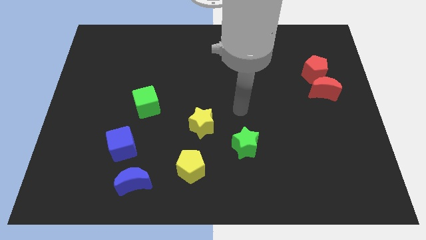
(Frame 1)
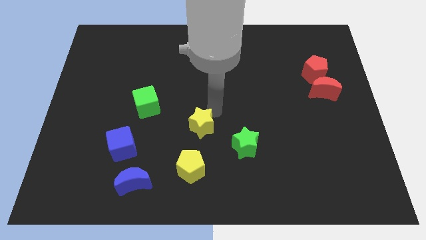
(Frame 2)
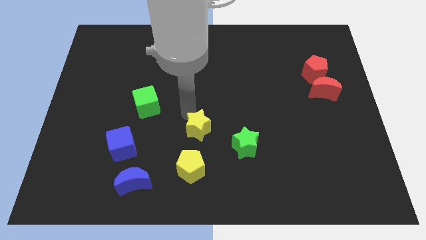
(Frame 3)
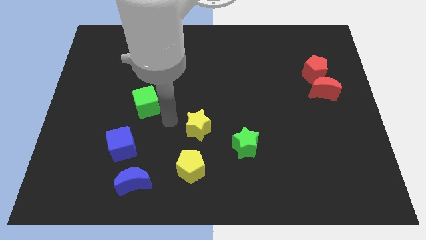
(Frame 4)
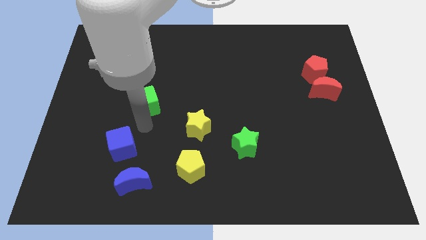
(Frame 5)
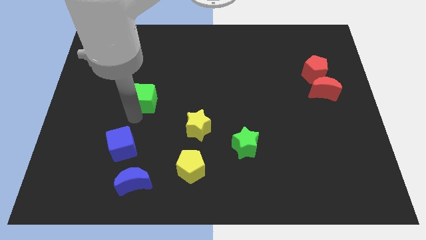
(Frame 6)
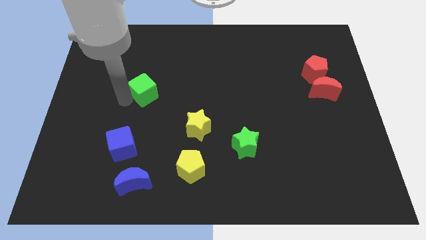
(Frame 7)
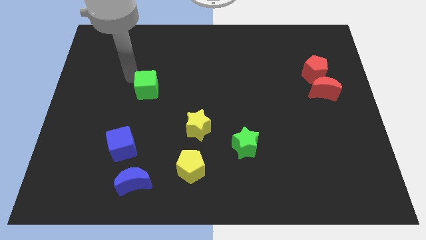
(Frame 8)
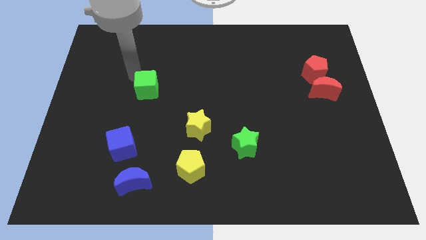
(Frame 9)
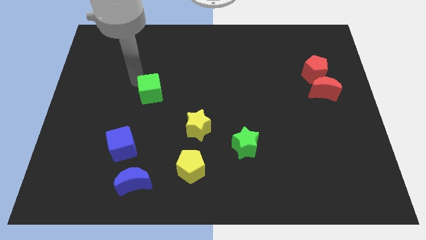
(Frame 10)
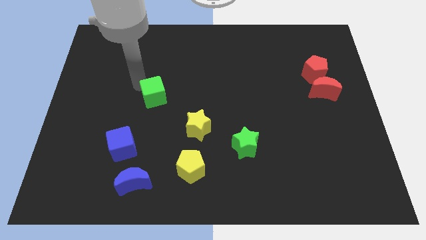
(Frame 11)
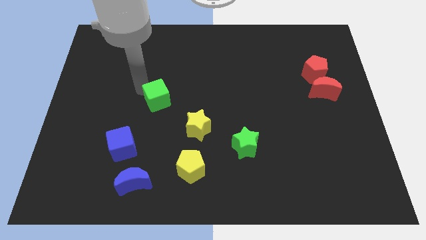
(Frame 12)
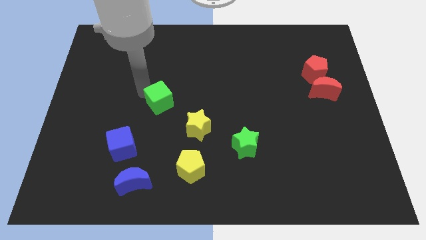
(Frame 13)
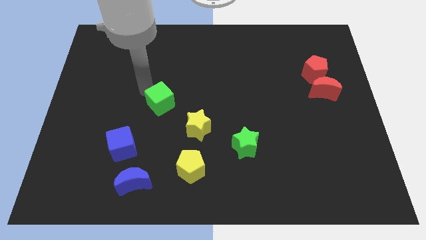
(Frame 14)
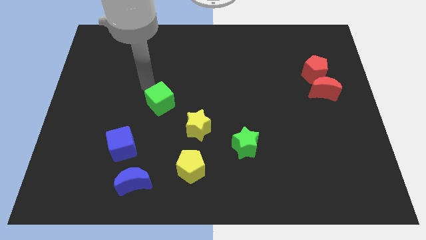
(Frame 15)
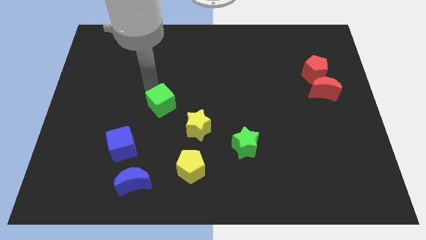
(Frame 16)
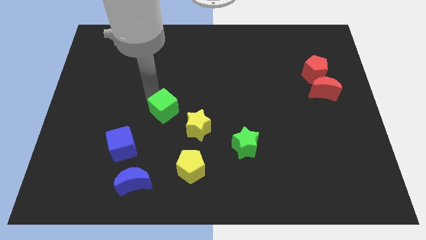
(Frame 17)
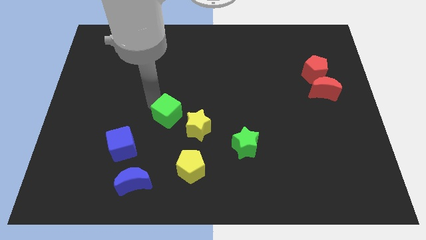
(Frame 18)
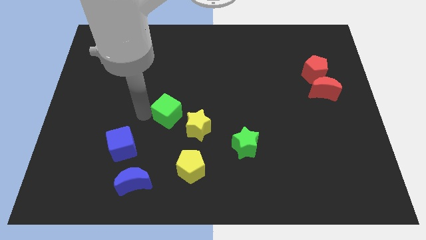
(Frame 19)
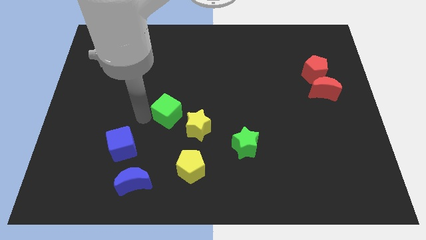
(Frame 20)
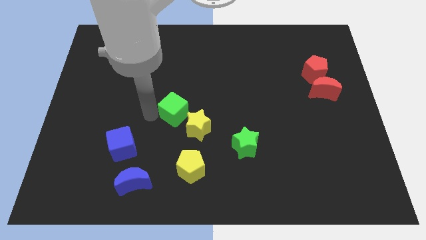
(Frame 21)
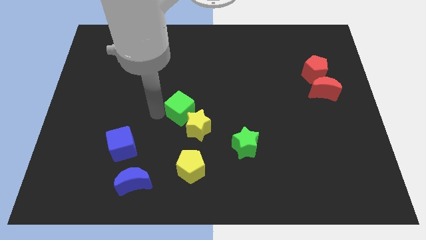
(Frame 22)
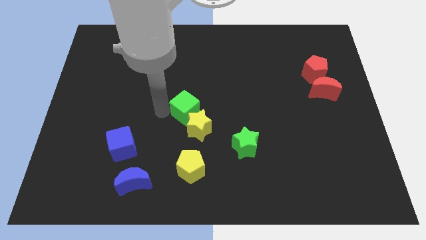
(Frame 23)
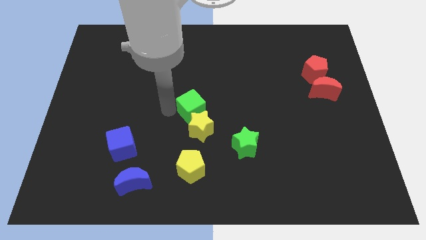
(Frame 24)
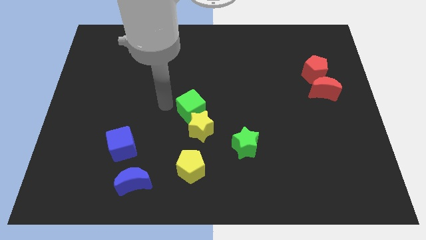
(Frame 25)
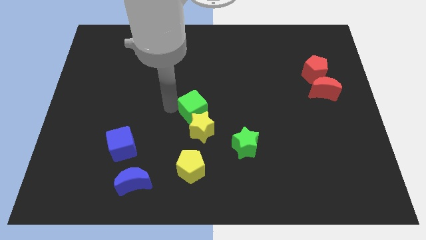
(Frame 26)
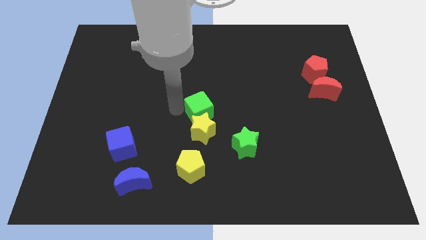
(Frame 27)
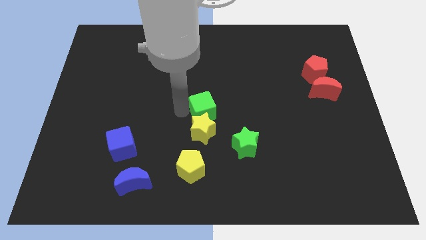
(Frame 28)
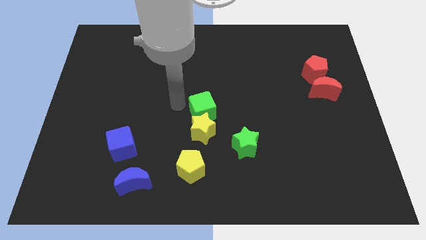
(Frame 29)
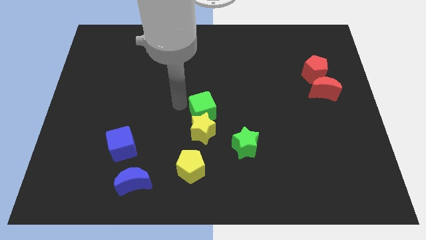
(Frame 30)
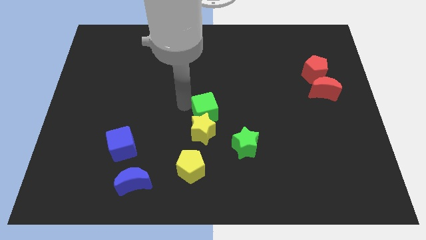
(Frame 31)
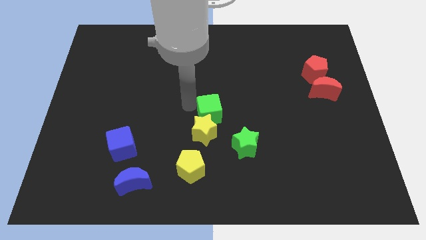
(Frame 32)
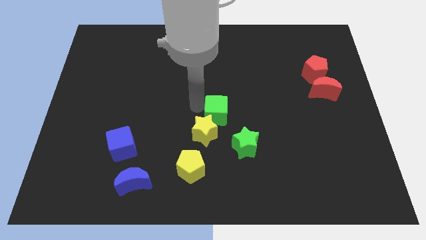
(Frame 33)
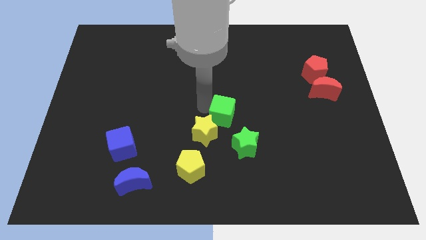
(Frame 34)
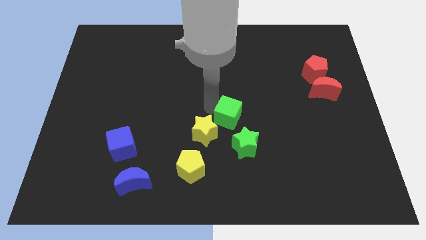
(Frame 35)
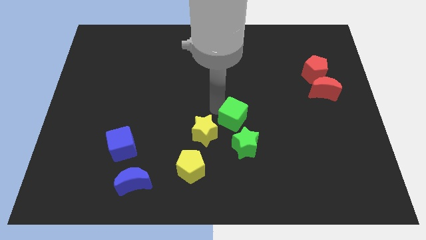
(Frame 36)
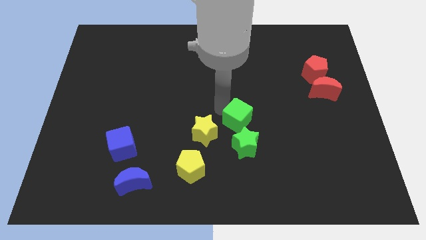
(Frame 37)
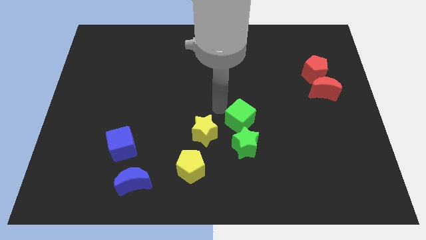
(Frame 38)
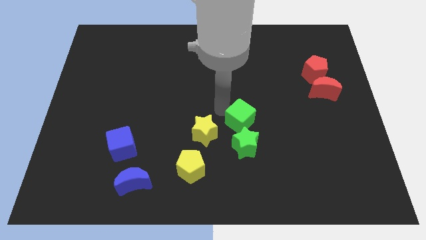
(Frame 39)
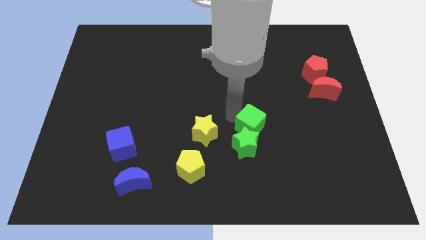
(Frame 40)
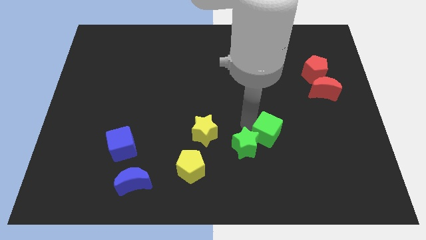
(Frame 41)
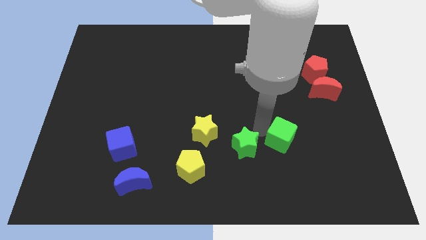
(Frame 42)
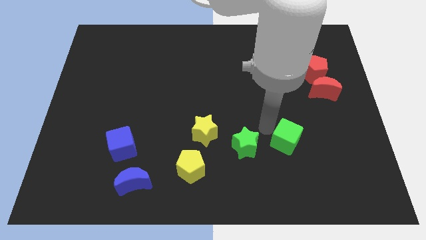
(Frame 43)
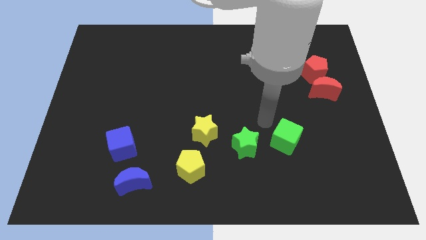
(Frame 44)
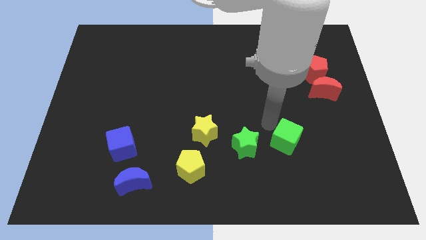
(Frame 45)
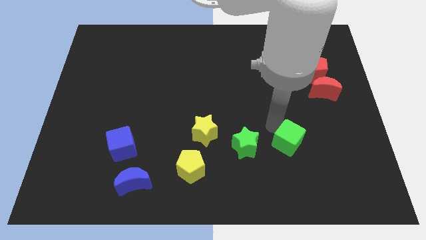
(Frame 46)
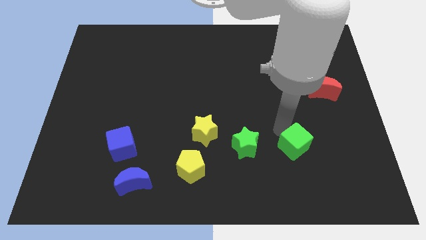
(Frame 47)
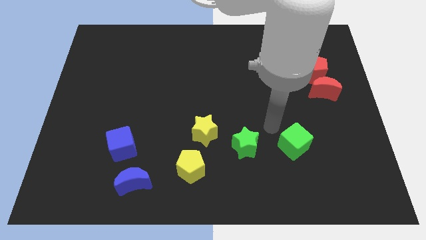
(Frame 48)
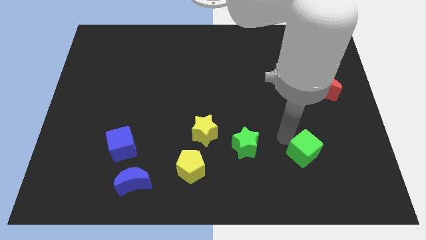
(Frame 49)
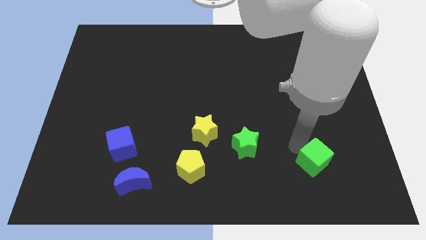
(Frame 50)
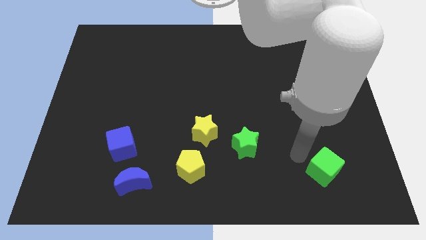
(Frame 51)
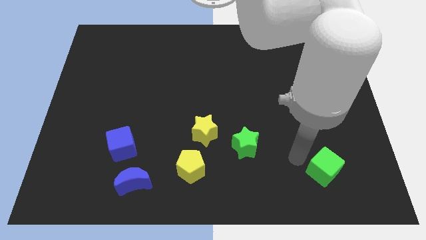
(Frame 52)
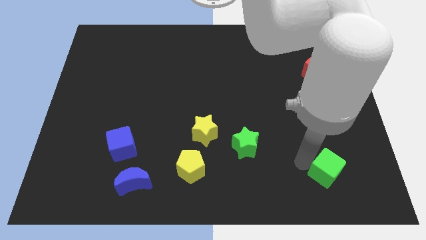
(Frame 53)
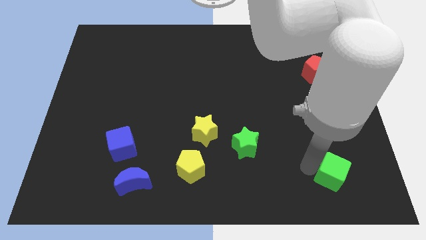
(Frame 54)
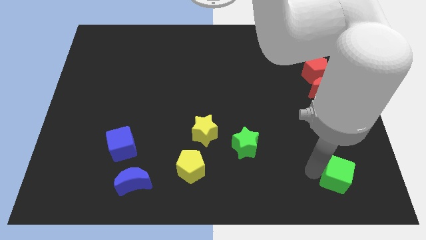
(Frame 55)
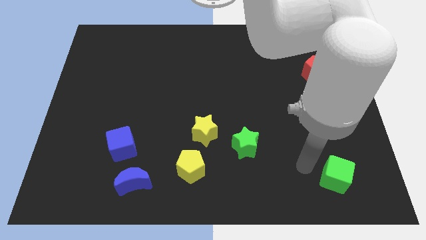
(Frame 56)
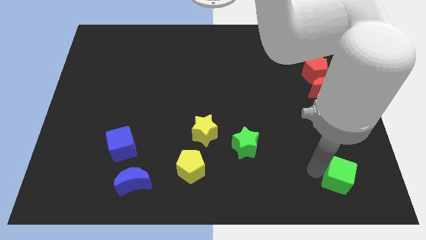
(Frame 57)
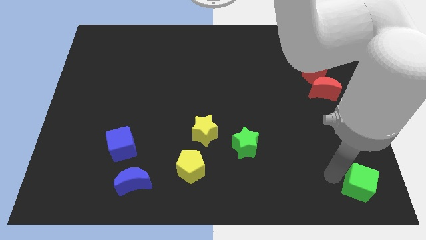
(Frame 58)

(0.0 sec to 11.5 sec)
put the green cube to the bottom right

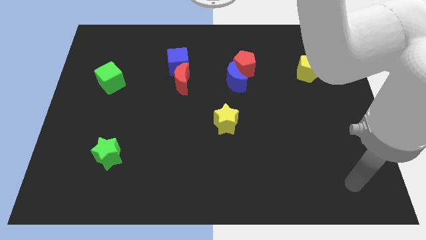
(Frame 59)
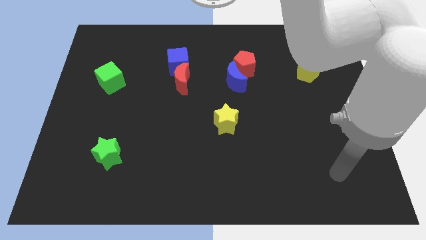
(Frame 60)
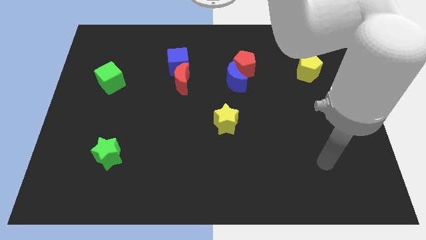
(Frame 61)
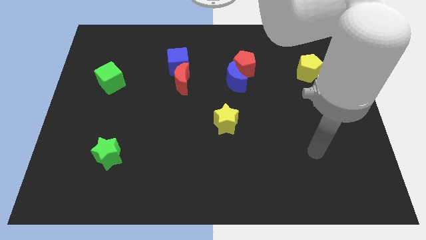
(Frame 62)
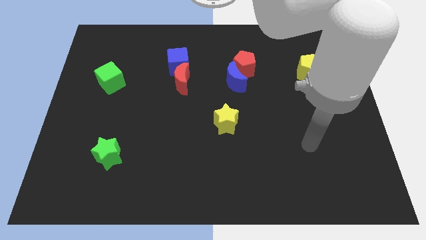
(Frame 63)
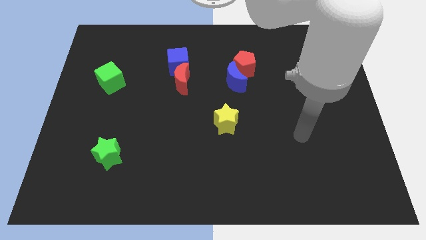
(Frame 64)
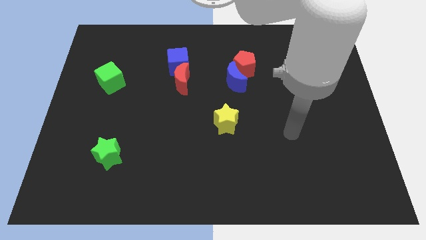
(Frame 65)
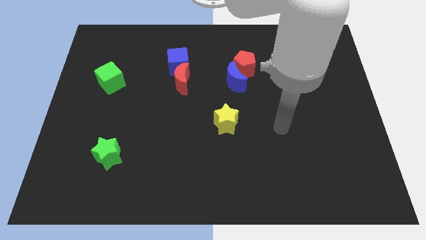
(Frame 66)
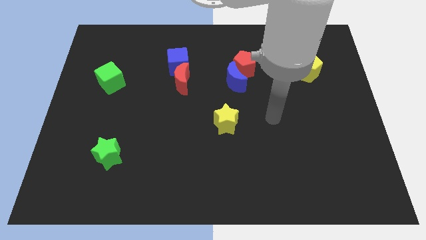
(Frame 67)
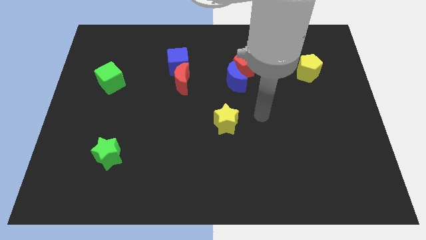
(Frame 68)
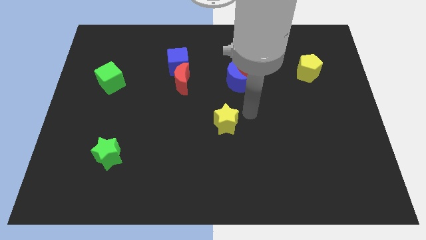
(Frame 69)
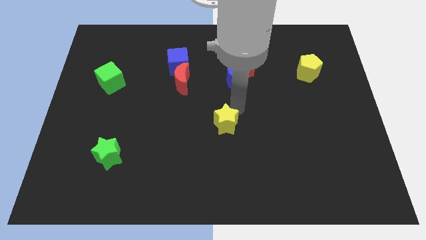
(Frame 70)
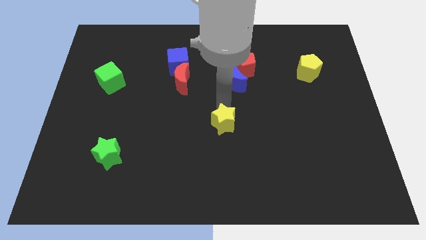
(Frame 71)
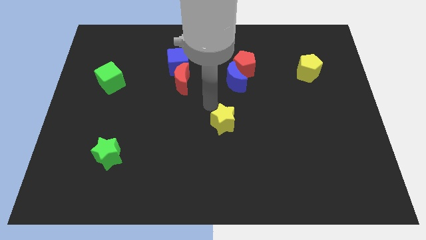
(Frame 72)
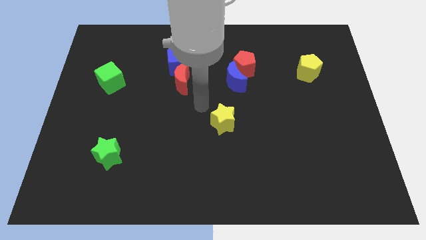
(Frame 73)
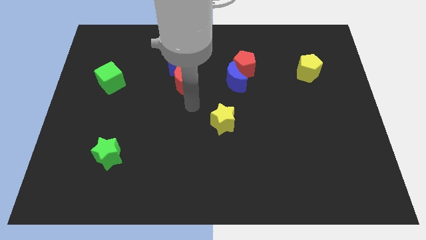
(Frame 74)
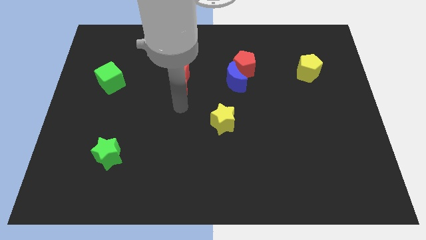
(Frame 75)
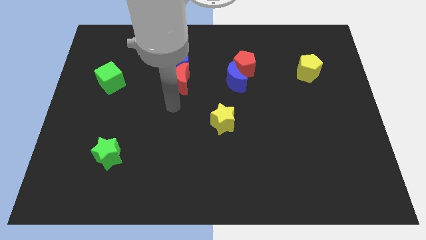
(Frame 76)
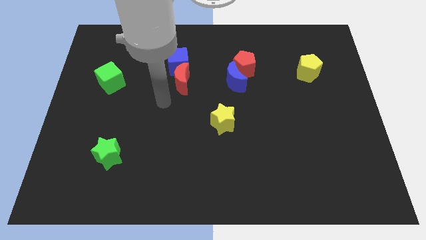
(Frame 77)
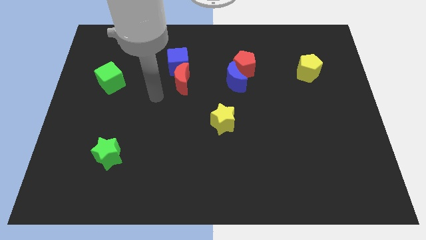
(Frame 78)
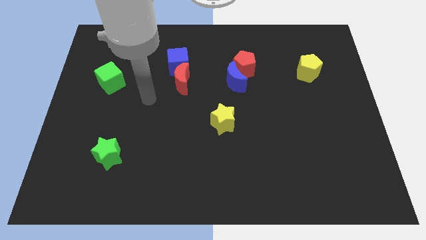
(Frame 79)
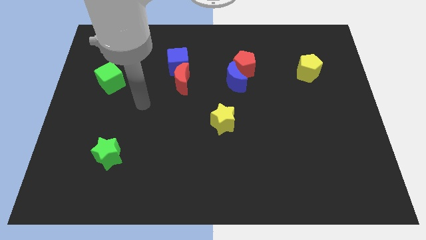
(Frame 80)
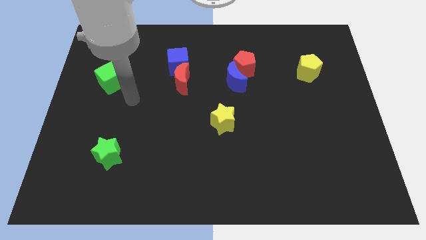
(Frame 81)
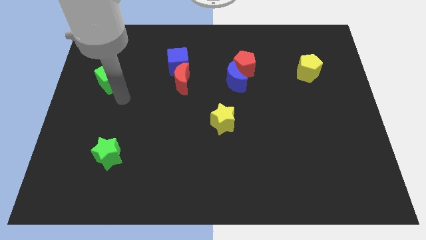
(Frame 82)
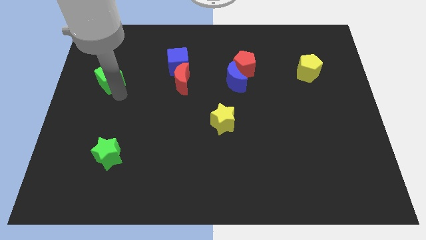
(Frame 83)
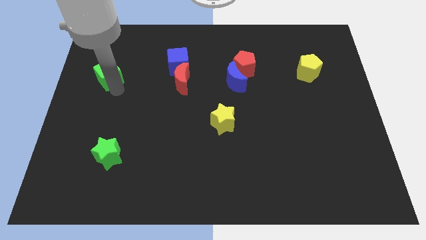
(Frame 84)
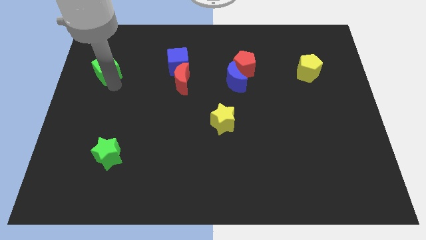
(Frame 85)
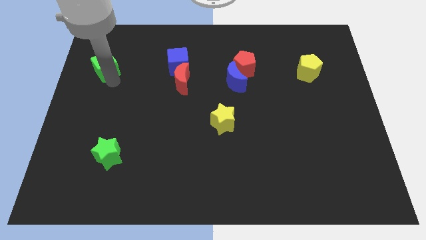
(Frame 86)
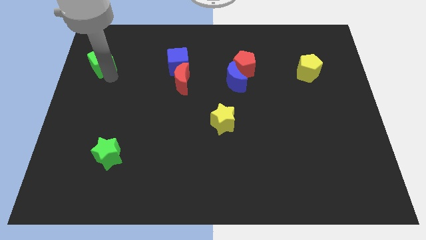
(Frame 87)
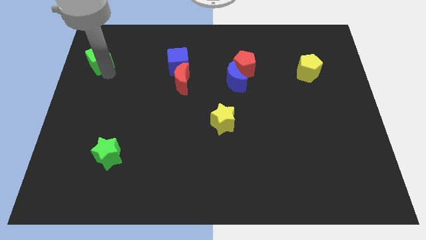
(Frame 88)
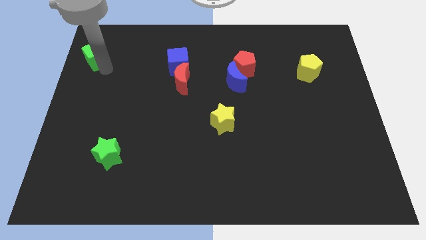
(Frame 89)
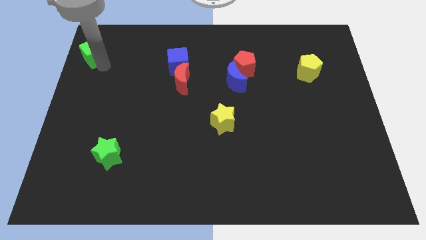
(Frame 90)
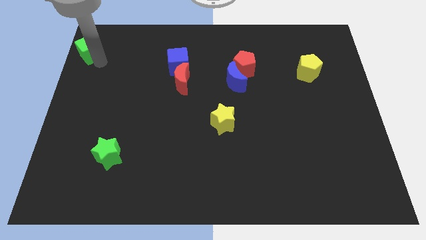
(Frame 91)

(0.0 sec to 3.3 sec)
push the green cube to the upper left corner
